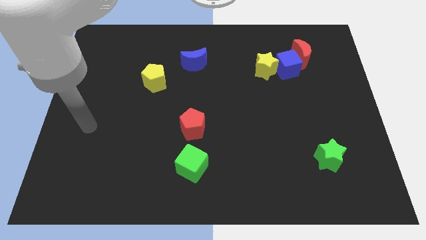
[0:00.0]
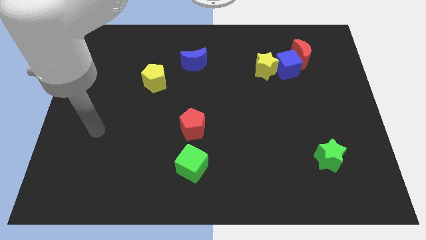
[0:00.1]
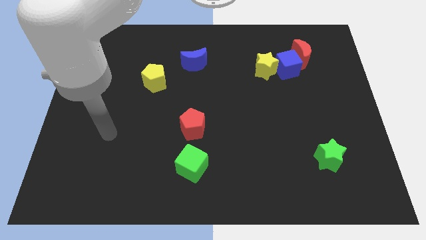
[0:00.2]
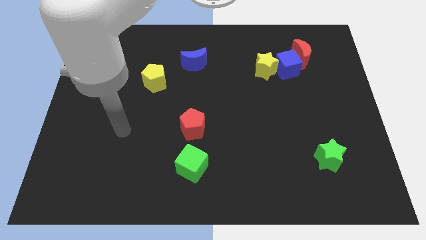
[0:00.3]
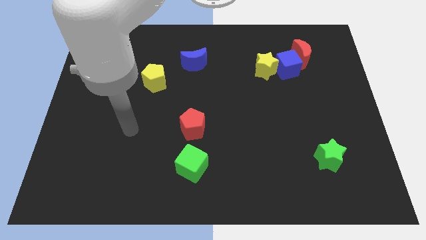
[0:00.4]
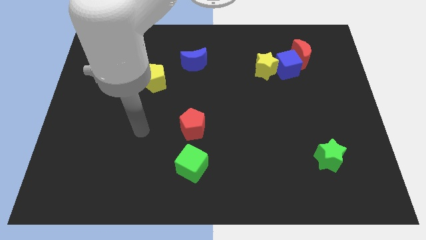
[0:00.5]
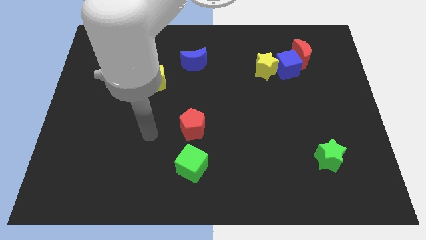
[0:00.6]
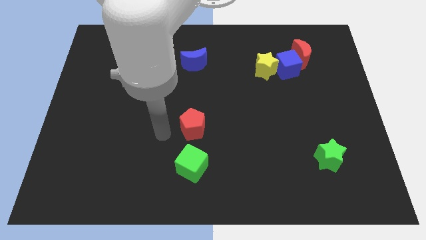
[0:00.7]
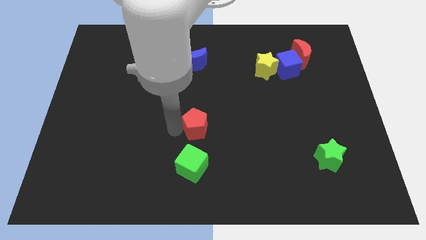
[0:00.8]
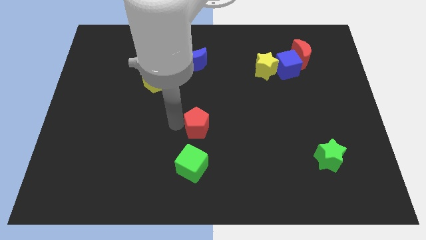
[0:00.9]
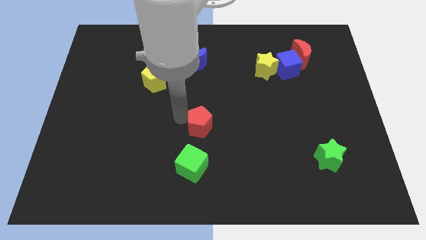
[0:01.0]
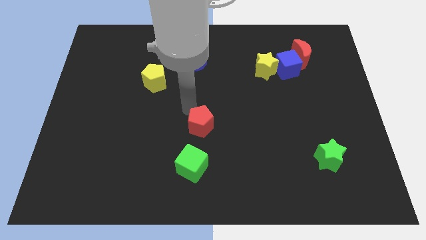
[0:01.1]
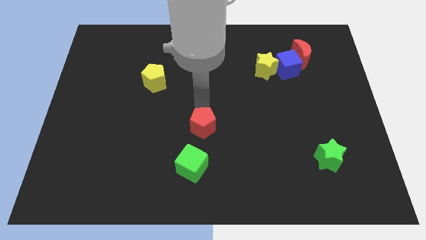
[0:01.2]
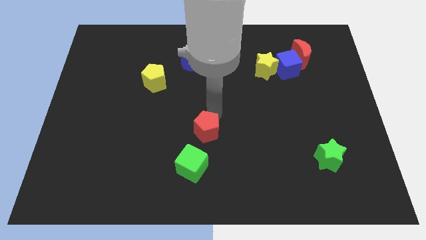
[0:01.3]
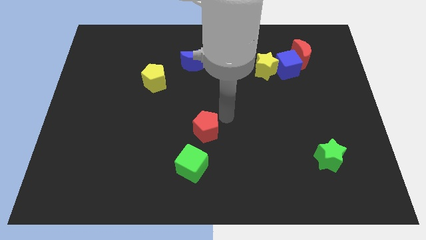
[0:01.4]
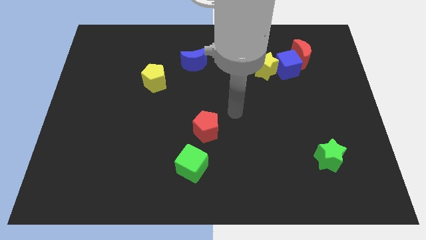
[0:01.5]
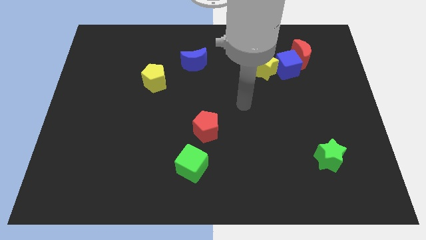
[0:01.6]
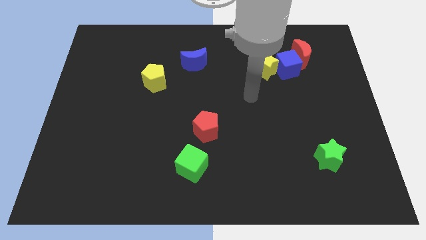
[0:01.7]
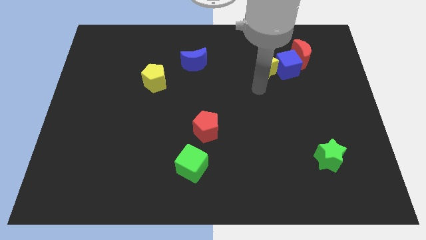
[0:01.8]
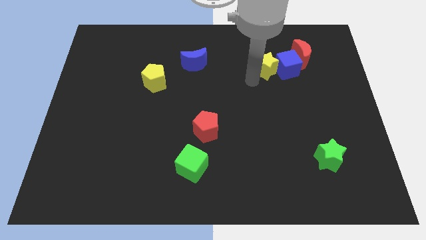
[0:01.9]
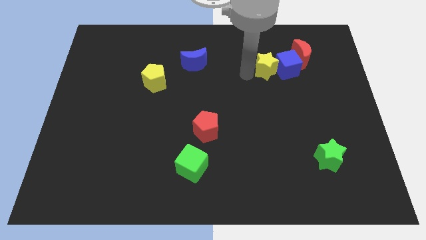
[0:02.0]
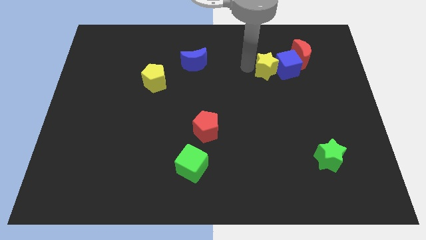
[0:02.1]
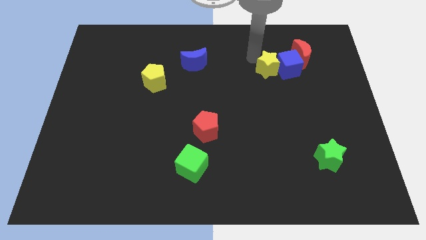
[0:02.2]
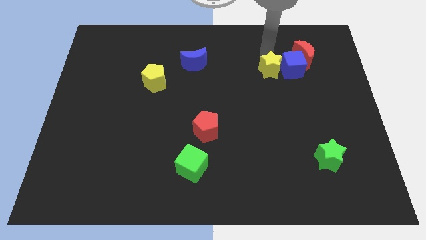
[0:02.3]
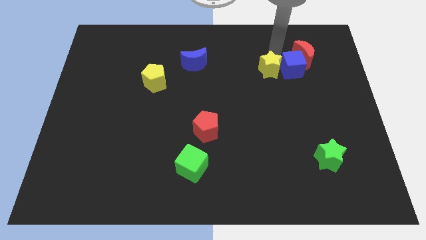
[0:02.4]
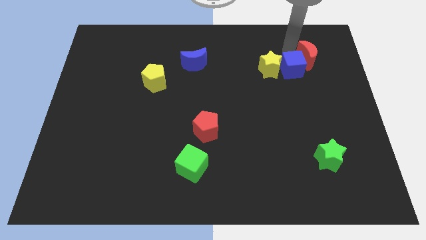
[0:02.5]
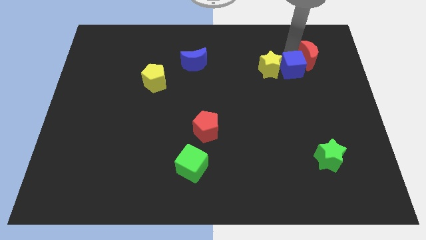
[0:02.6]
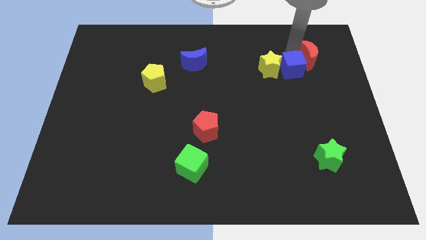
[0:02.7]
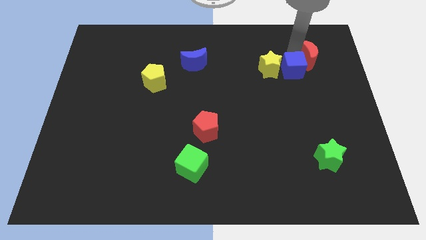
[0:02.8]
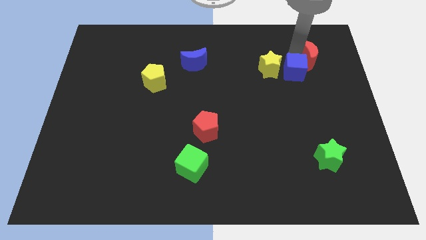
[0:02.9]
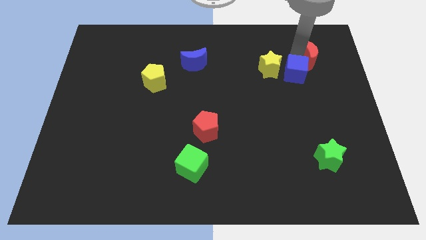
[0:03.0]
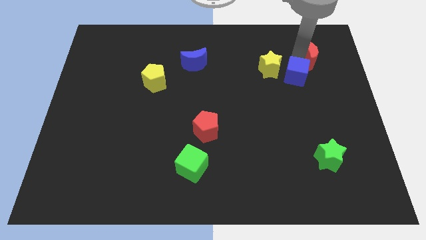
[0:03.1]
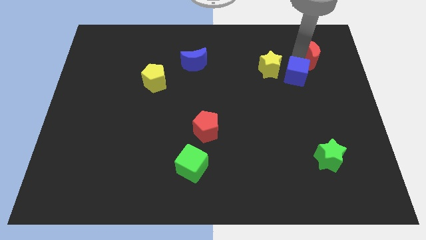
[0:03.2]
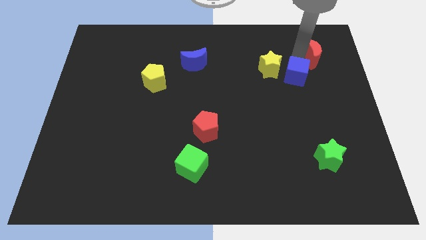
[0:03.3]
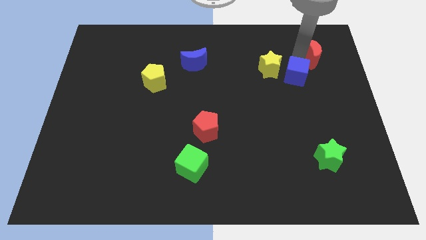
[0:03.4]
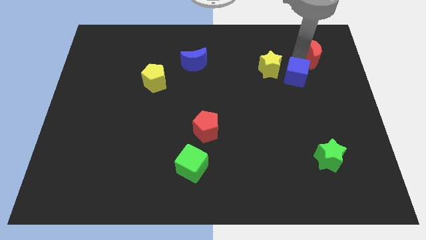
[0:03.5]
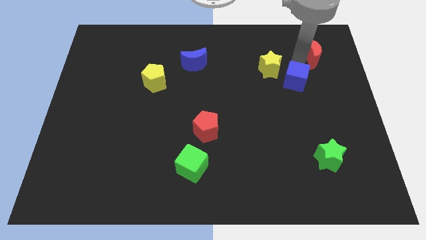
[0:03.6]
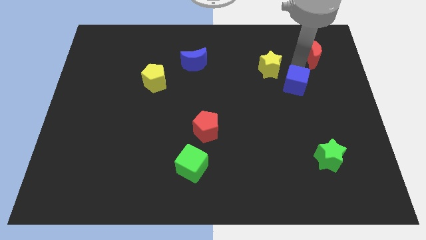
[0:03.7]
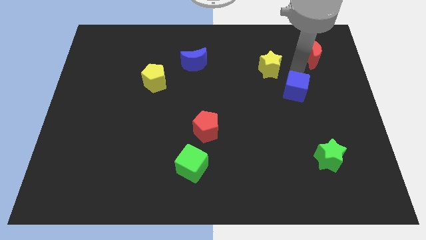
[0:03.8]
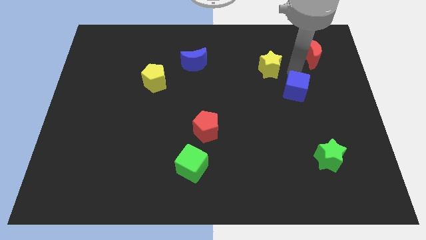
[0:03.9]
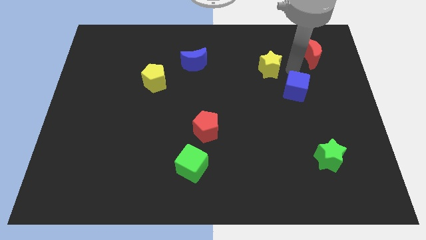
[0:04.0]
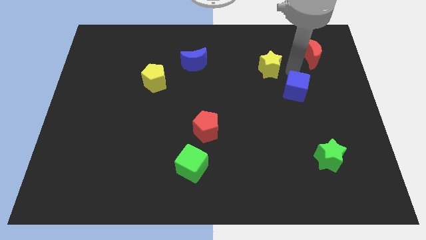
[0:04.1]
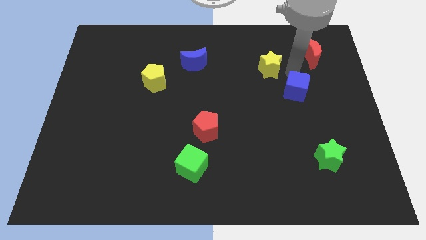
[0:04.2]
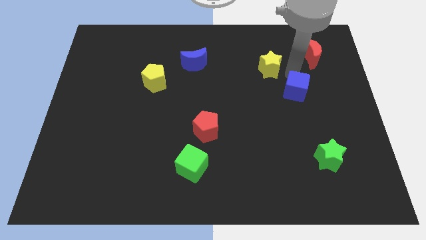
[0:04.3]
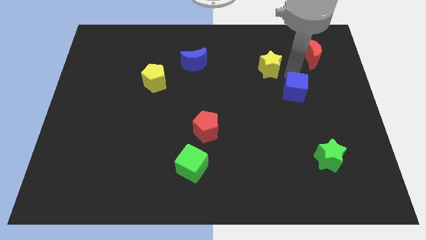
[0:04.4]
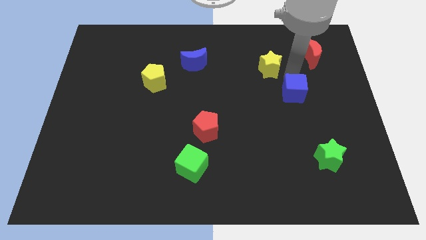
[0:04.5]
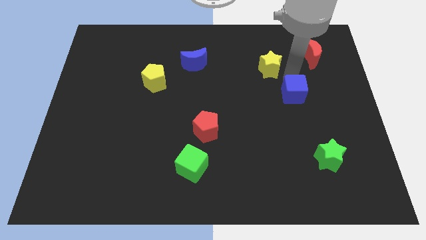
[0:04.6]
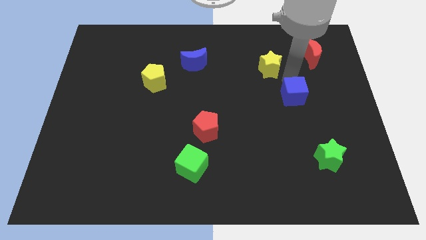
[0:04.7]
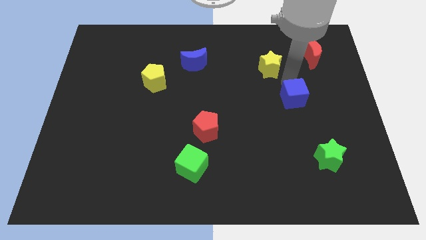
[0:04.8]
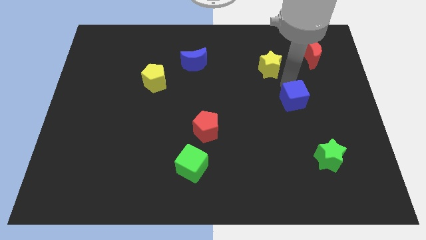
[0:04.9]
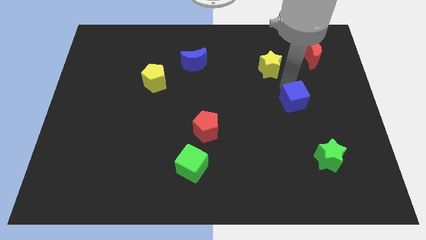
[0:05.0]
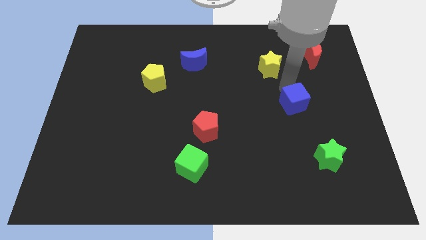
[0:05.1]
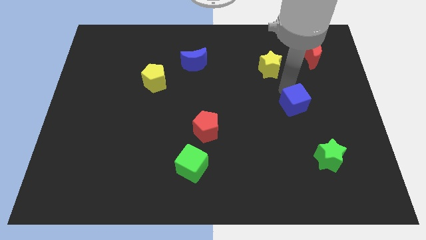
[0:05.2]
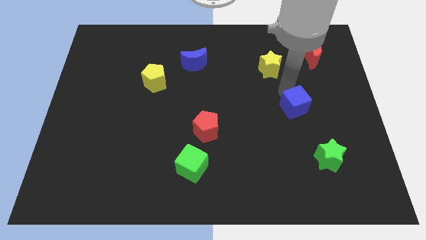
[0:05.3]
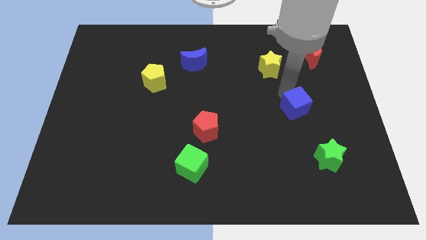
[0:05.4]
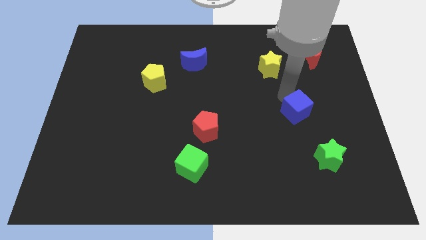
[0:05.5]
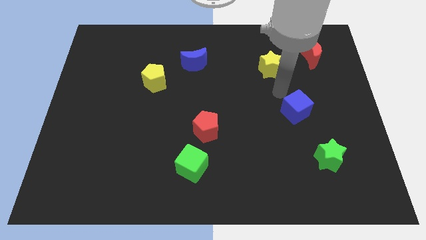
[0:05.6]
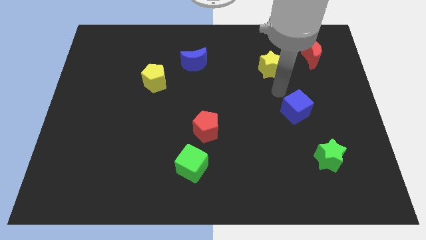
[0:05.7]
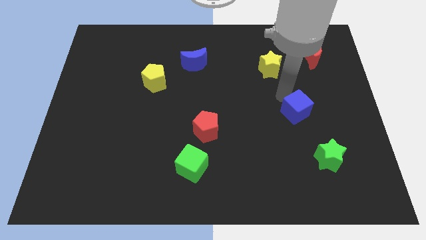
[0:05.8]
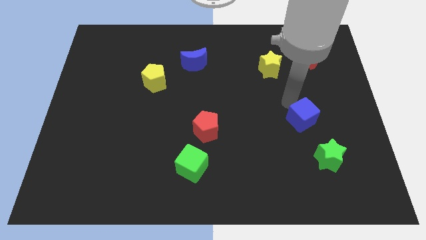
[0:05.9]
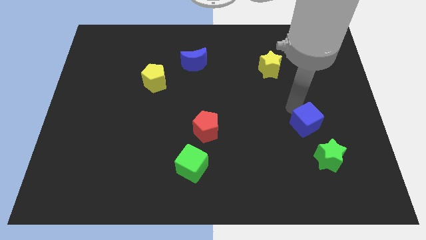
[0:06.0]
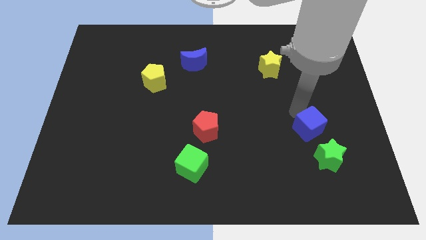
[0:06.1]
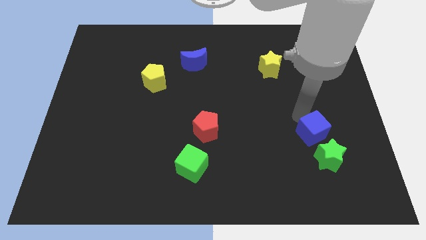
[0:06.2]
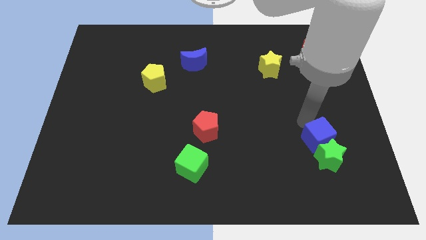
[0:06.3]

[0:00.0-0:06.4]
move the blue cube close to the green star

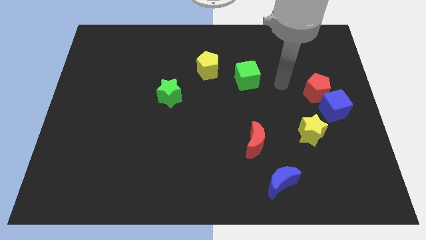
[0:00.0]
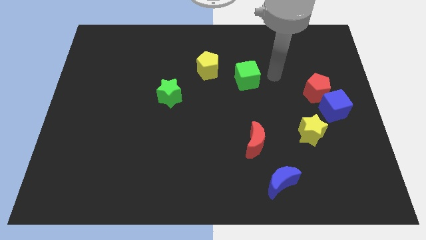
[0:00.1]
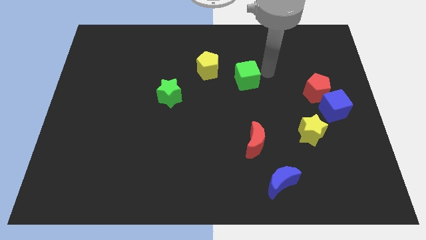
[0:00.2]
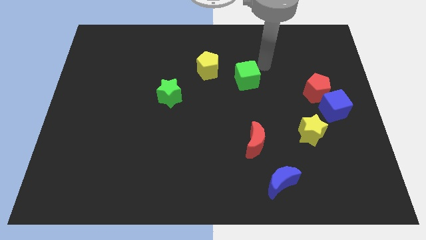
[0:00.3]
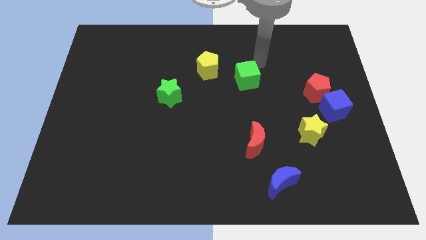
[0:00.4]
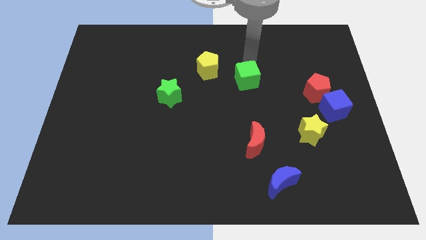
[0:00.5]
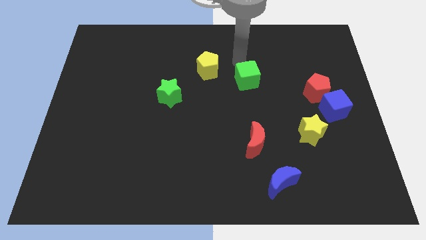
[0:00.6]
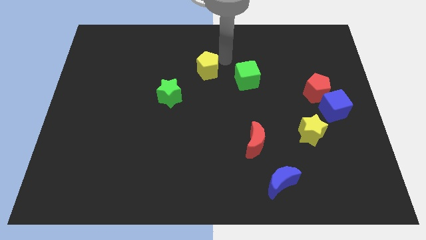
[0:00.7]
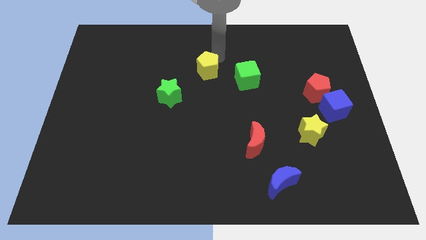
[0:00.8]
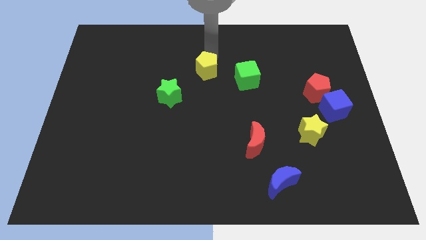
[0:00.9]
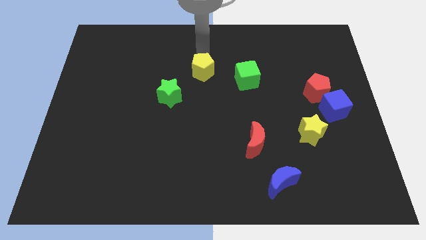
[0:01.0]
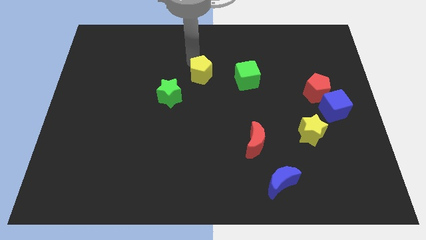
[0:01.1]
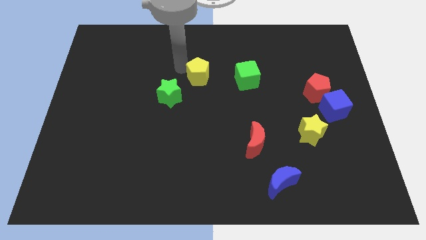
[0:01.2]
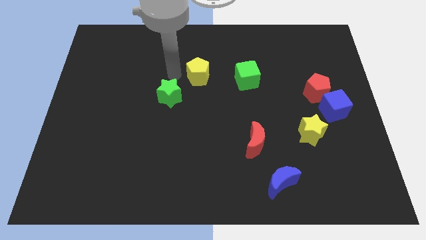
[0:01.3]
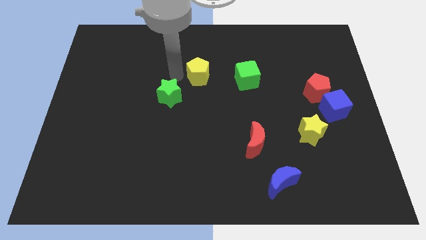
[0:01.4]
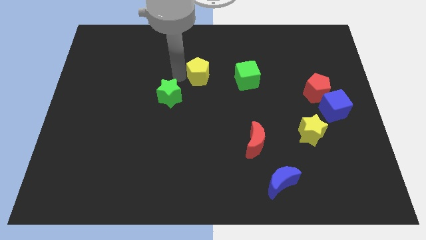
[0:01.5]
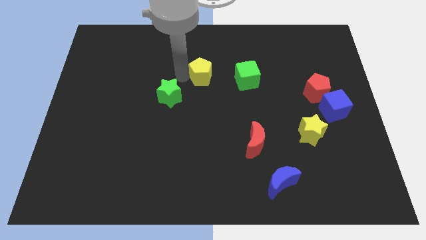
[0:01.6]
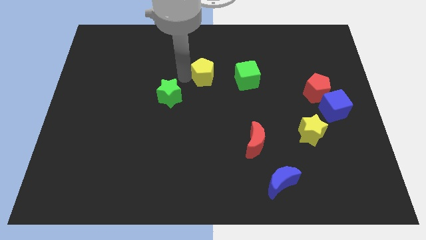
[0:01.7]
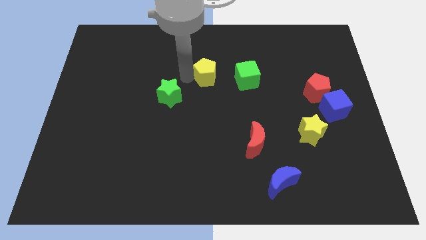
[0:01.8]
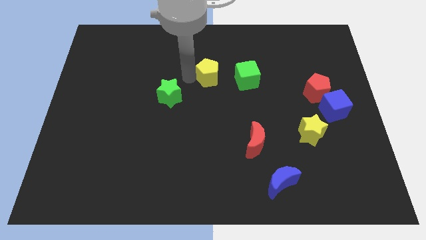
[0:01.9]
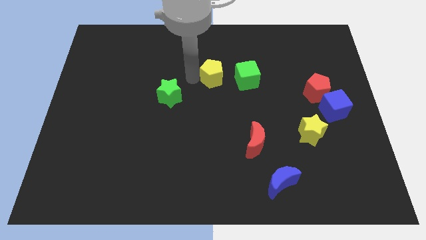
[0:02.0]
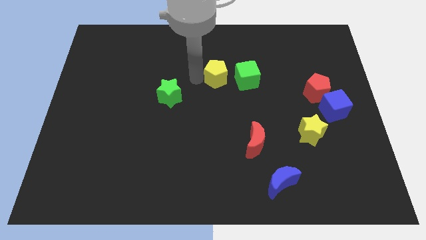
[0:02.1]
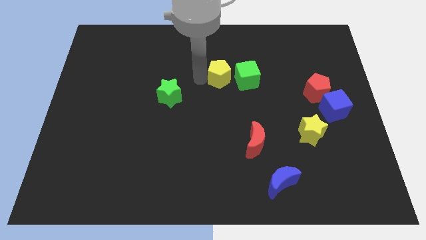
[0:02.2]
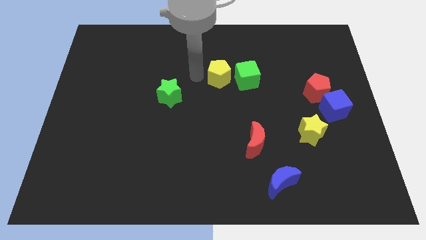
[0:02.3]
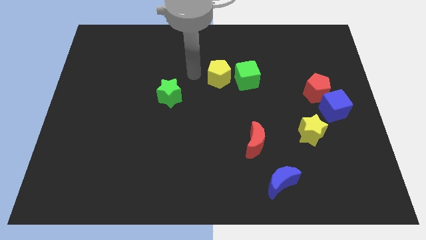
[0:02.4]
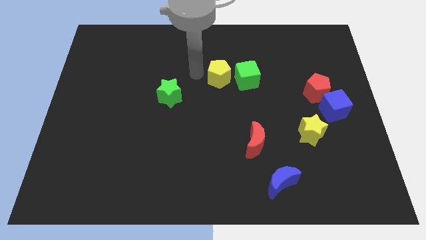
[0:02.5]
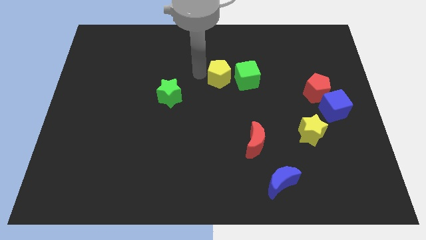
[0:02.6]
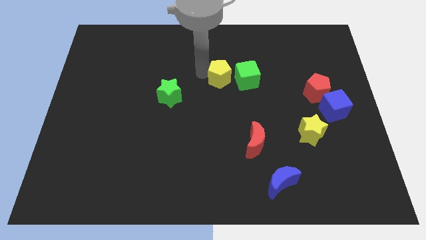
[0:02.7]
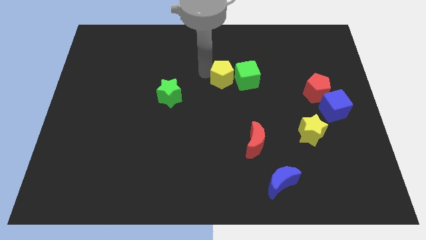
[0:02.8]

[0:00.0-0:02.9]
push the yellow pentagon next to the green cube
